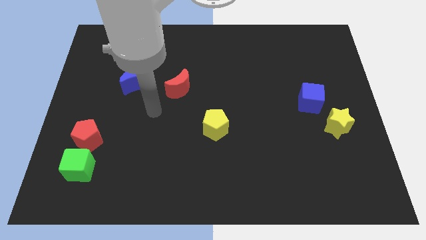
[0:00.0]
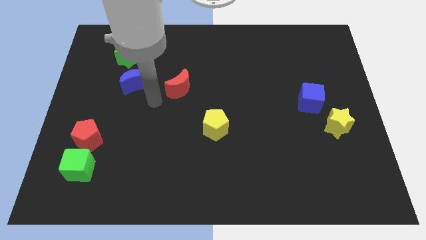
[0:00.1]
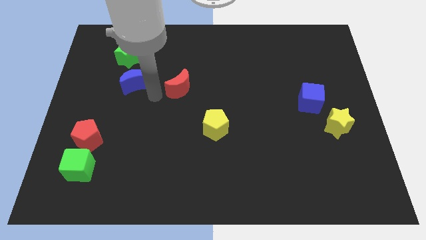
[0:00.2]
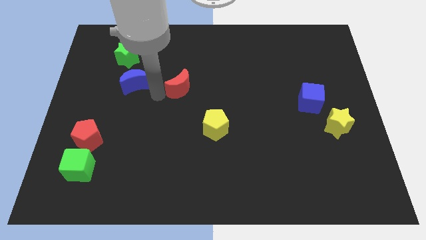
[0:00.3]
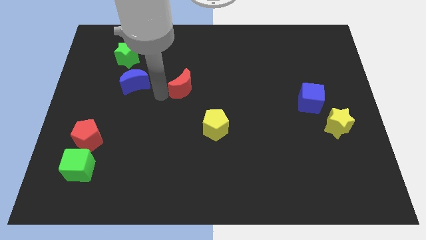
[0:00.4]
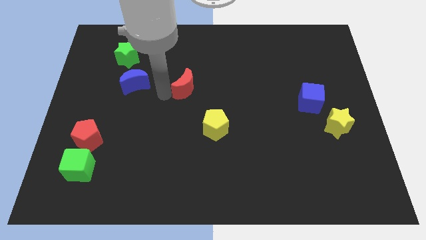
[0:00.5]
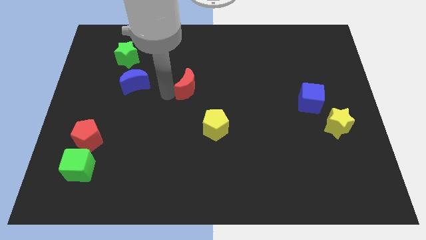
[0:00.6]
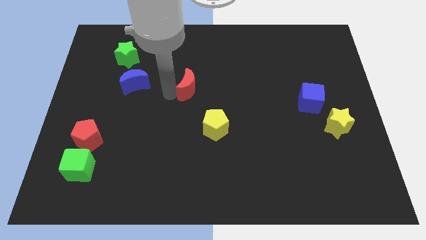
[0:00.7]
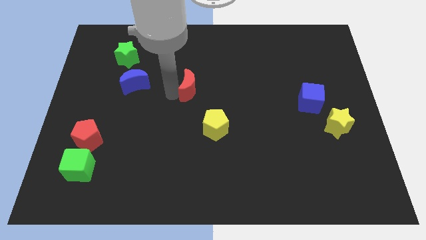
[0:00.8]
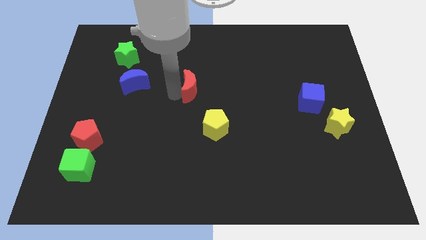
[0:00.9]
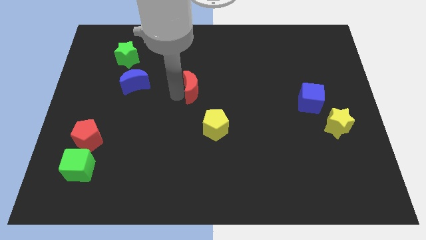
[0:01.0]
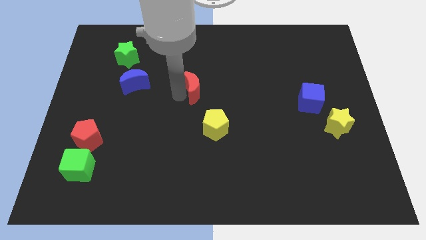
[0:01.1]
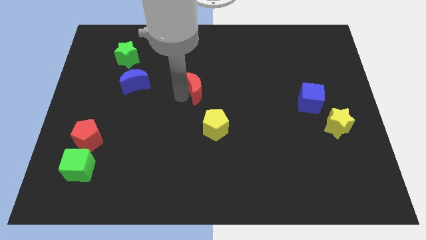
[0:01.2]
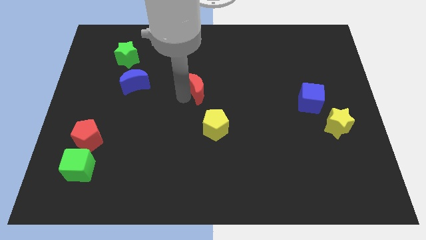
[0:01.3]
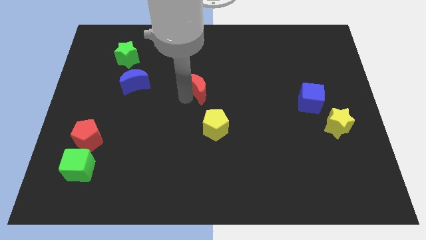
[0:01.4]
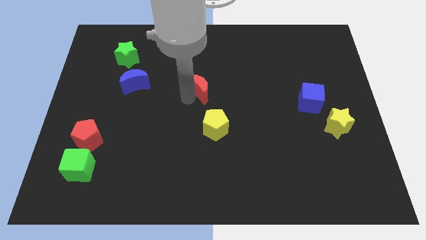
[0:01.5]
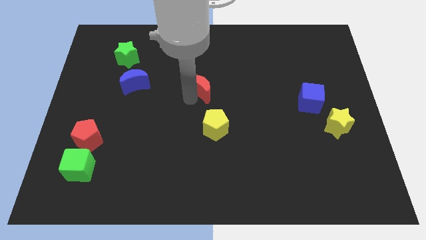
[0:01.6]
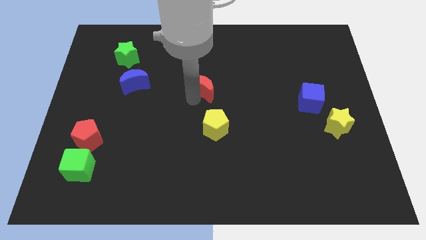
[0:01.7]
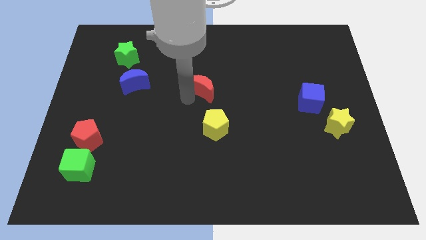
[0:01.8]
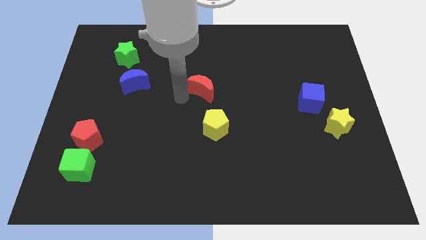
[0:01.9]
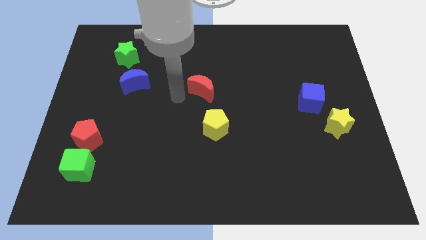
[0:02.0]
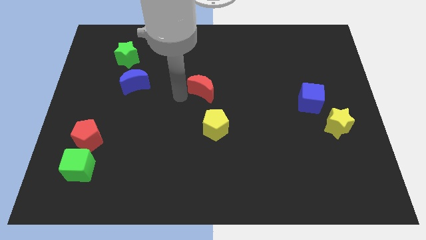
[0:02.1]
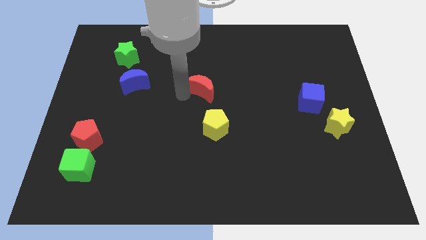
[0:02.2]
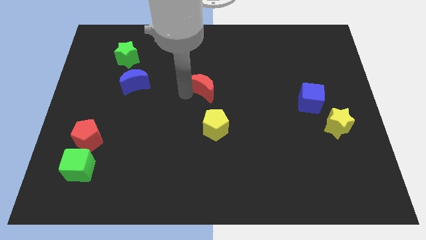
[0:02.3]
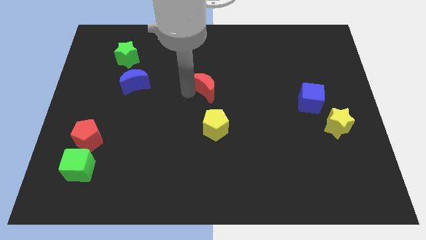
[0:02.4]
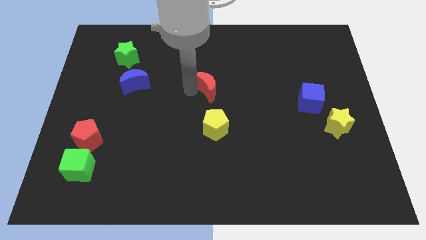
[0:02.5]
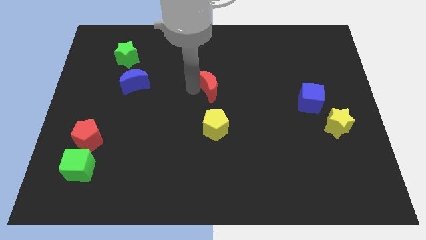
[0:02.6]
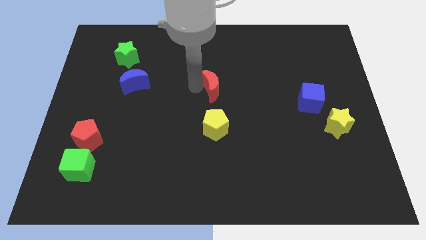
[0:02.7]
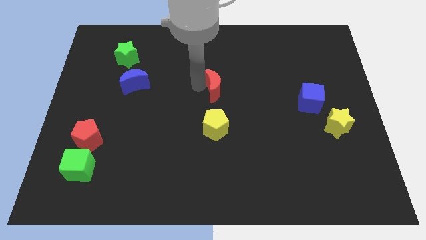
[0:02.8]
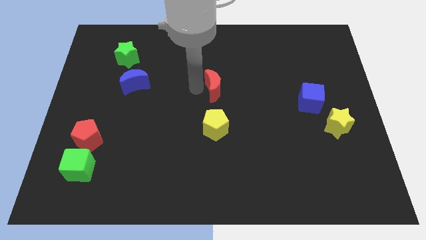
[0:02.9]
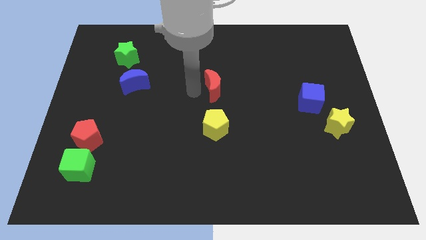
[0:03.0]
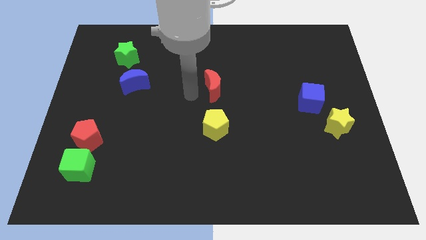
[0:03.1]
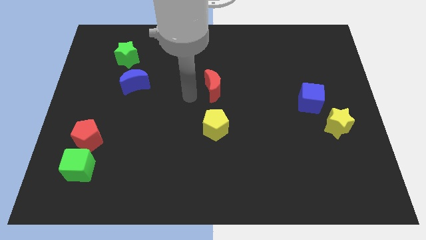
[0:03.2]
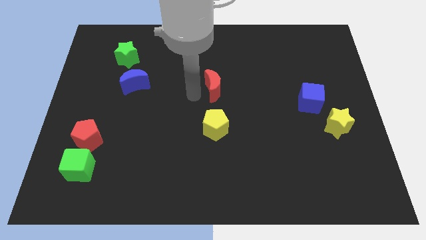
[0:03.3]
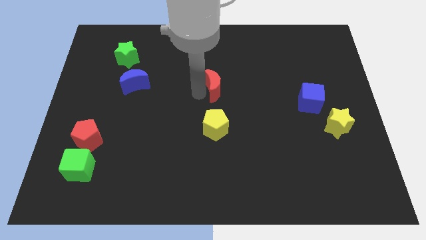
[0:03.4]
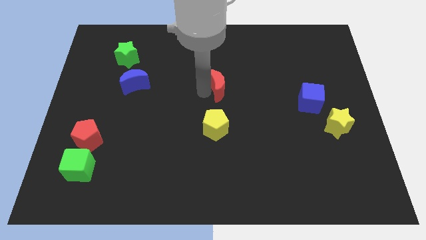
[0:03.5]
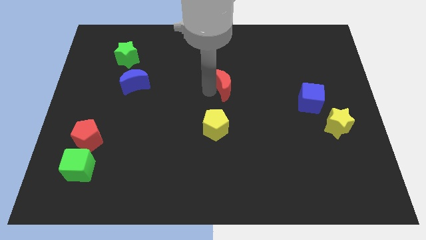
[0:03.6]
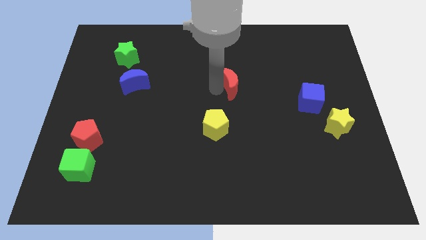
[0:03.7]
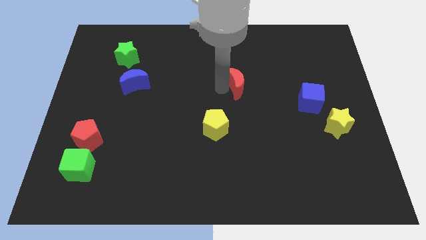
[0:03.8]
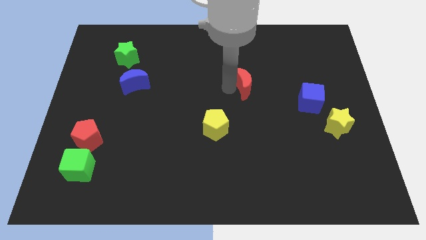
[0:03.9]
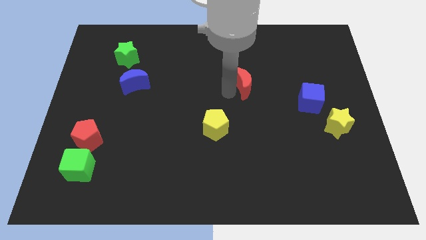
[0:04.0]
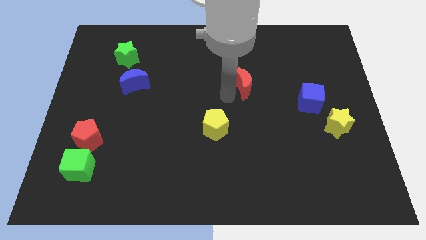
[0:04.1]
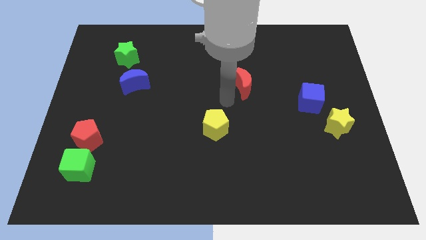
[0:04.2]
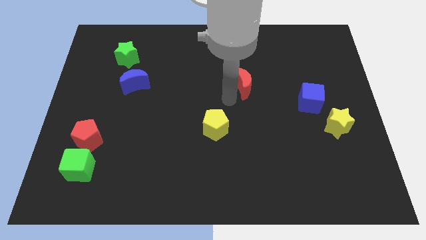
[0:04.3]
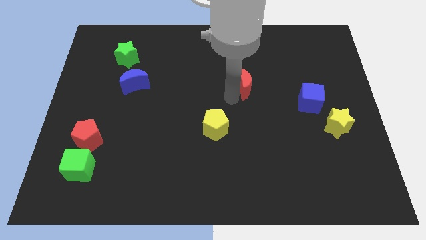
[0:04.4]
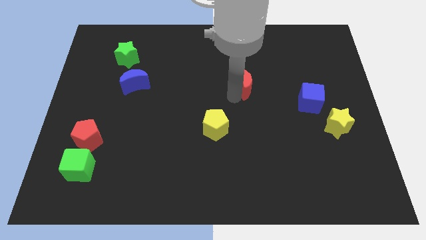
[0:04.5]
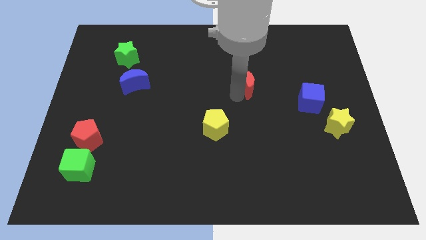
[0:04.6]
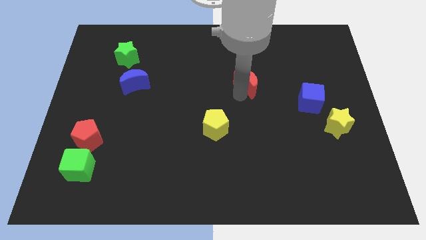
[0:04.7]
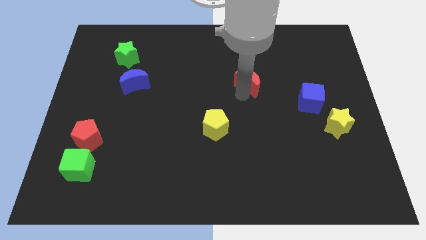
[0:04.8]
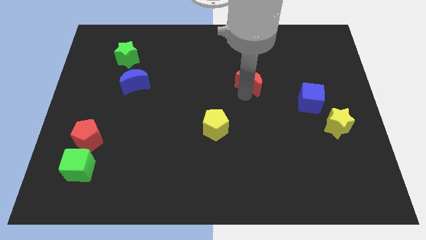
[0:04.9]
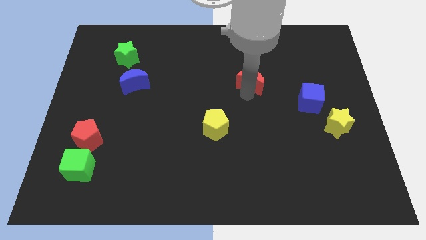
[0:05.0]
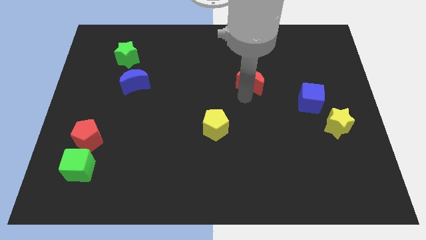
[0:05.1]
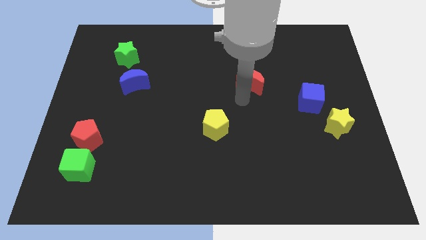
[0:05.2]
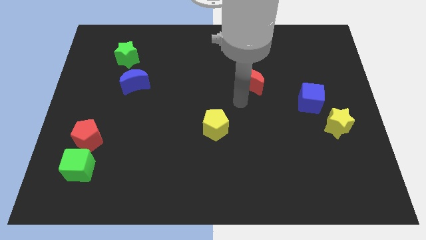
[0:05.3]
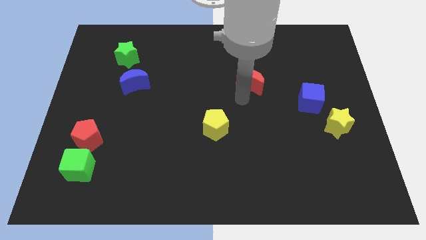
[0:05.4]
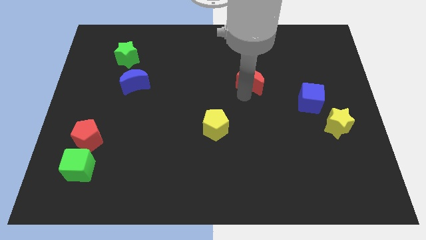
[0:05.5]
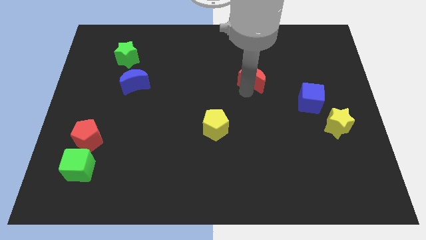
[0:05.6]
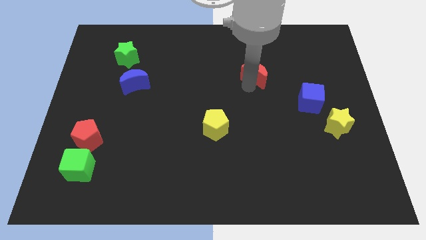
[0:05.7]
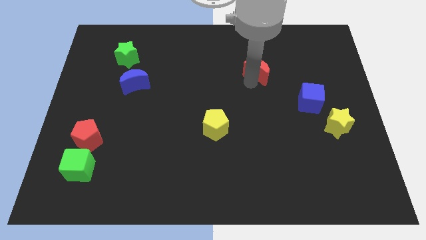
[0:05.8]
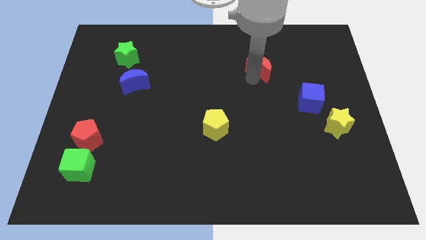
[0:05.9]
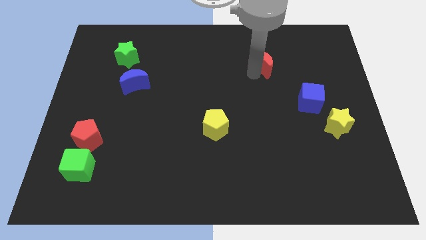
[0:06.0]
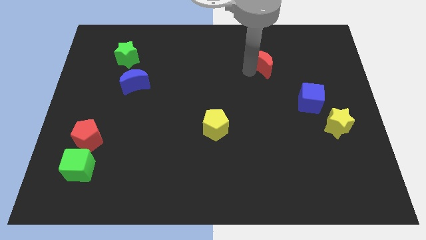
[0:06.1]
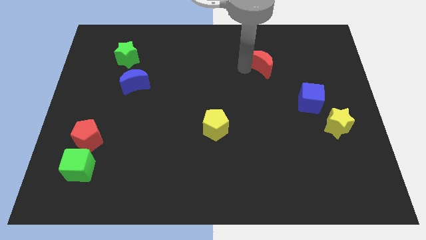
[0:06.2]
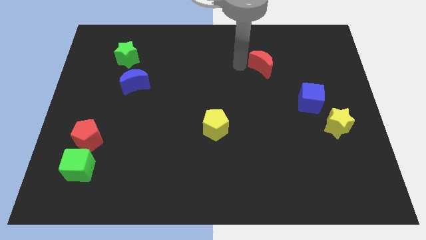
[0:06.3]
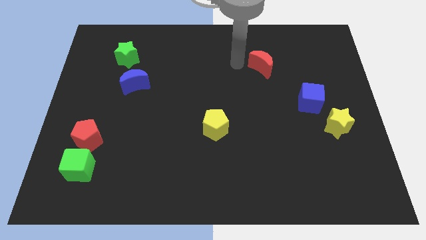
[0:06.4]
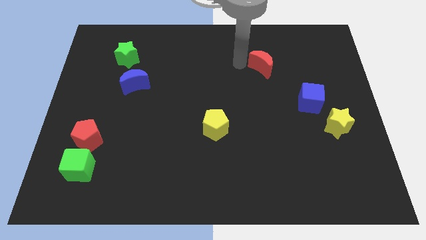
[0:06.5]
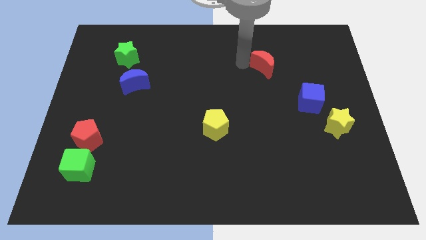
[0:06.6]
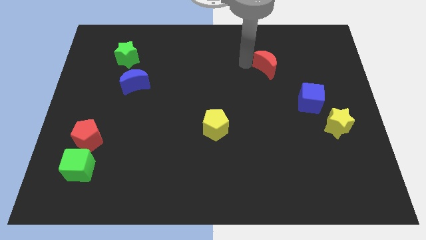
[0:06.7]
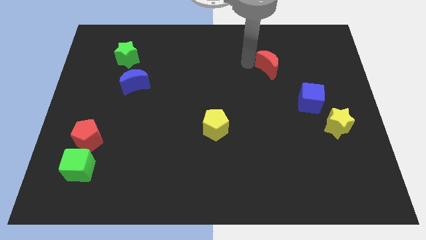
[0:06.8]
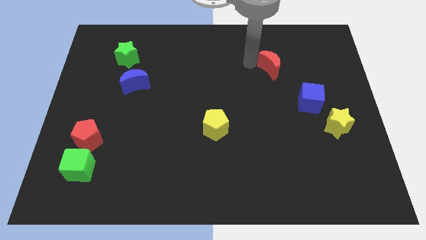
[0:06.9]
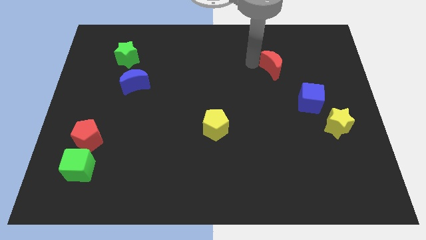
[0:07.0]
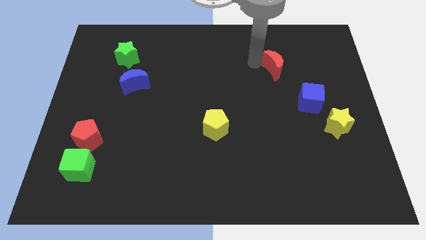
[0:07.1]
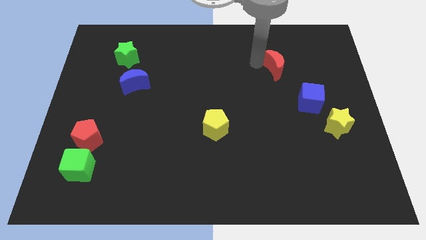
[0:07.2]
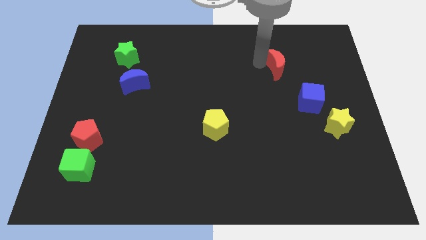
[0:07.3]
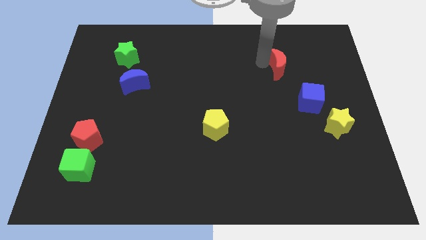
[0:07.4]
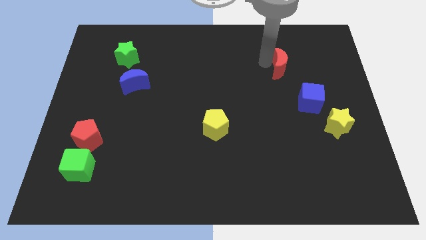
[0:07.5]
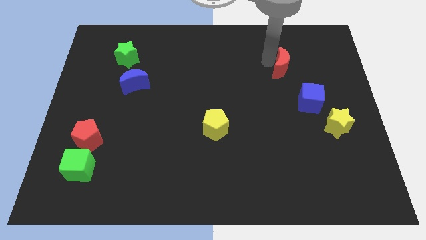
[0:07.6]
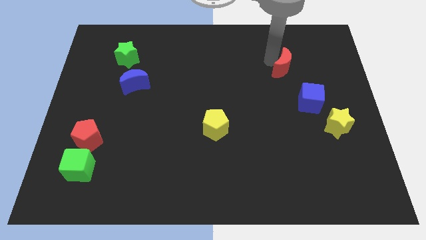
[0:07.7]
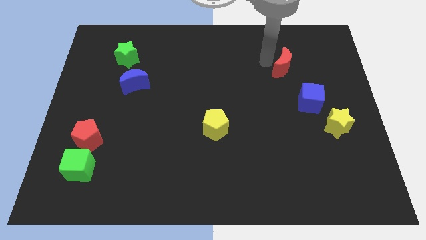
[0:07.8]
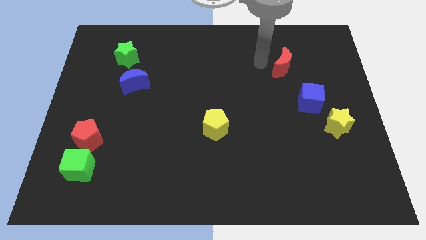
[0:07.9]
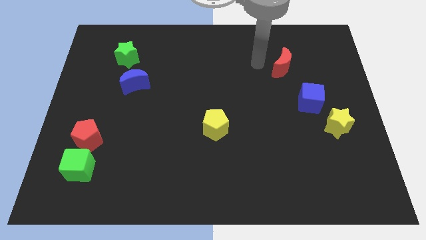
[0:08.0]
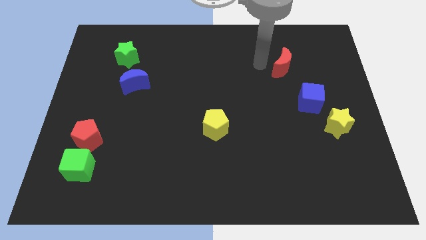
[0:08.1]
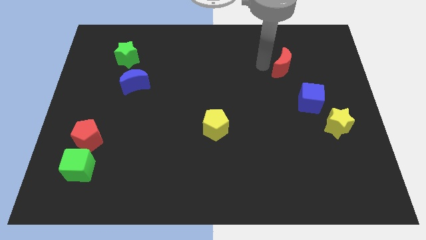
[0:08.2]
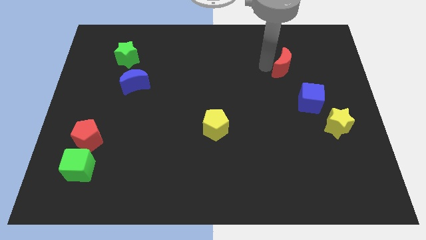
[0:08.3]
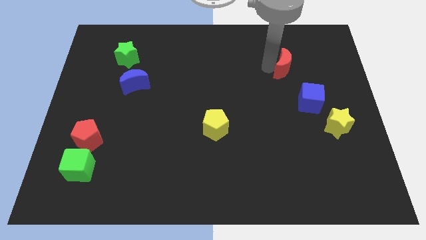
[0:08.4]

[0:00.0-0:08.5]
slide the red moon to the top of the blue cube
